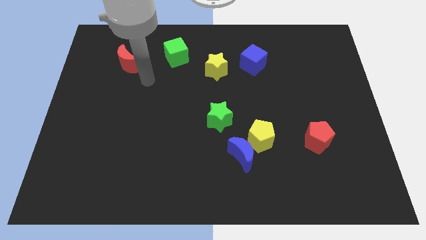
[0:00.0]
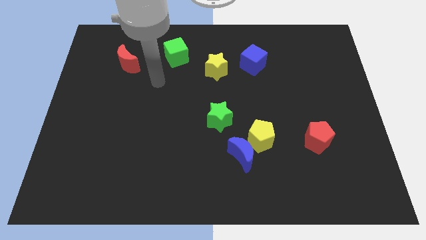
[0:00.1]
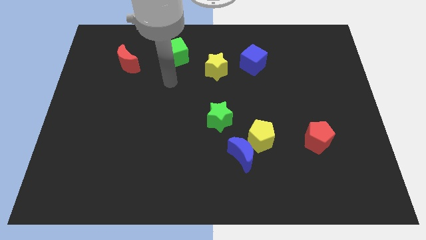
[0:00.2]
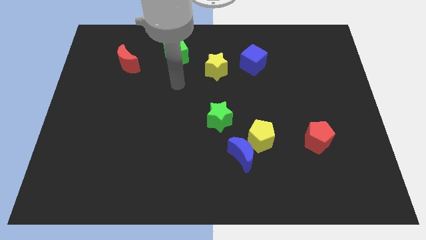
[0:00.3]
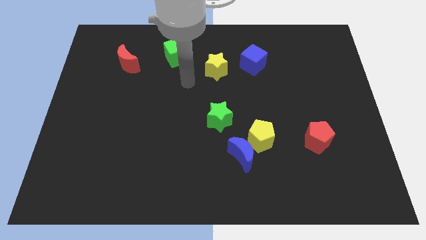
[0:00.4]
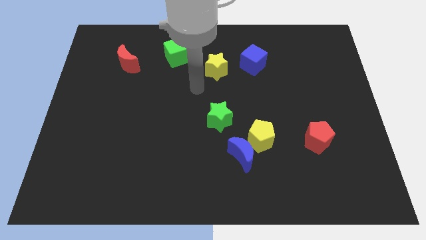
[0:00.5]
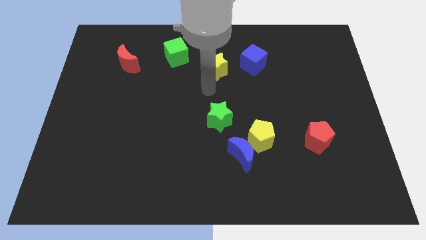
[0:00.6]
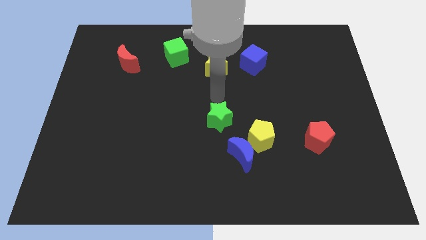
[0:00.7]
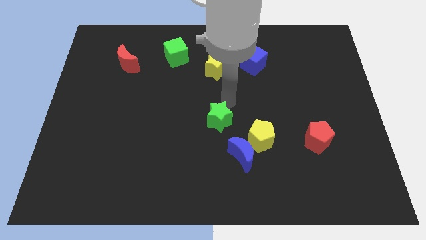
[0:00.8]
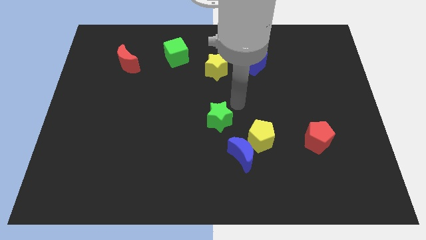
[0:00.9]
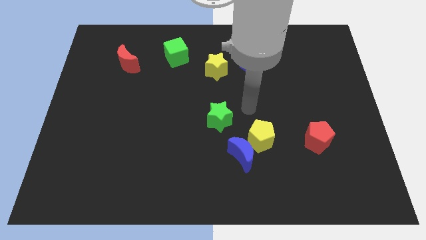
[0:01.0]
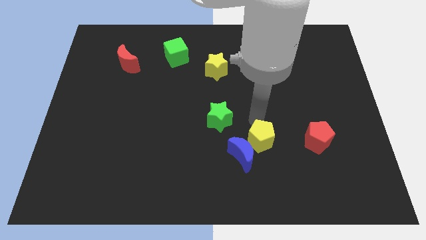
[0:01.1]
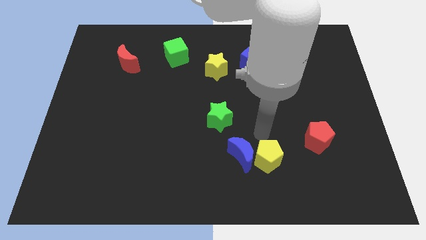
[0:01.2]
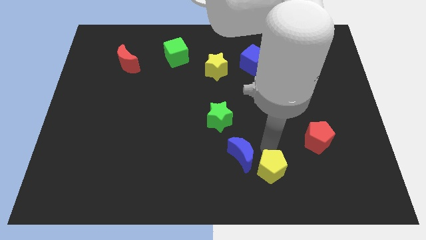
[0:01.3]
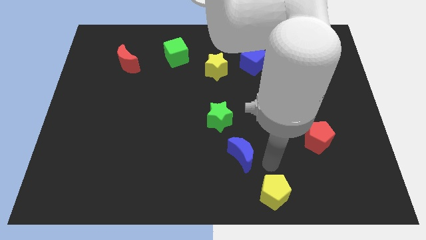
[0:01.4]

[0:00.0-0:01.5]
move the blue moon away from the yellow pentagon

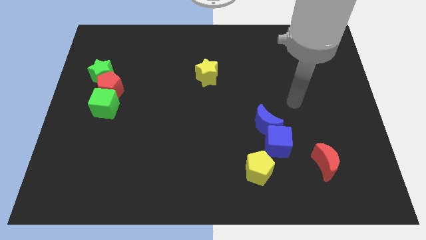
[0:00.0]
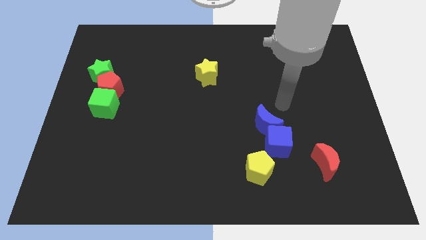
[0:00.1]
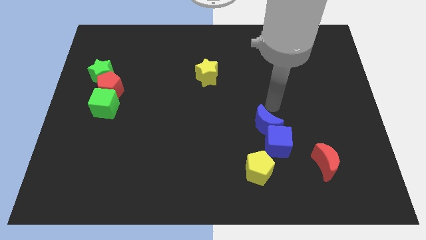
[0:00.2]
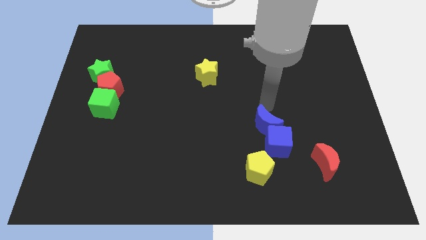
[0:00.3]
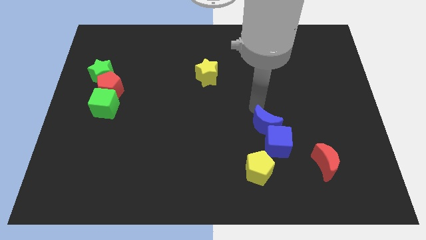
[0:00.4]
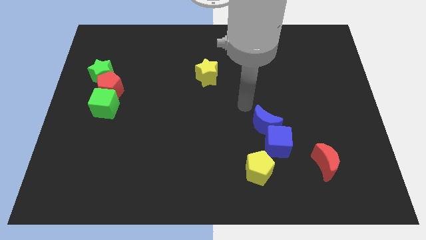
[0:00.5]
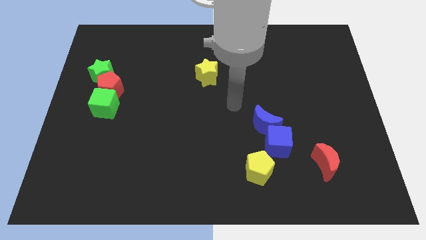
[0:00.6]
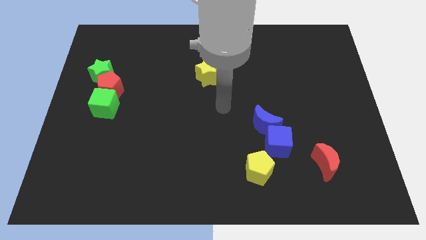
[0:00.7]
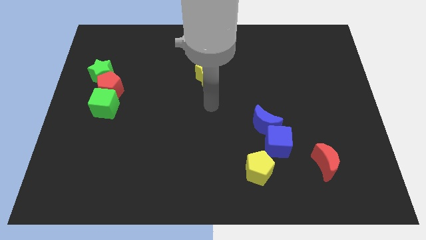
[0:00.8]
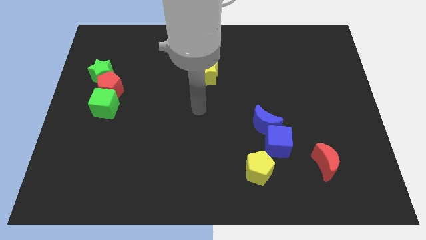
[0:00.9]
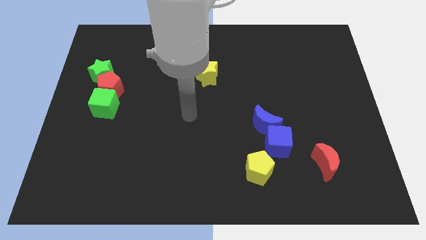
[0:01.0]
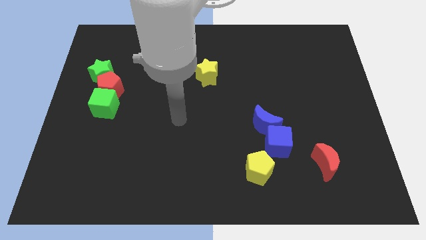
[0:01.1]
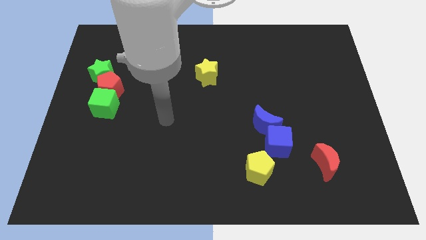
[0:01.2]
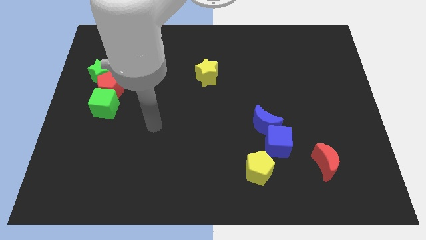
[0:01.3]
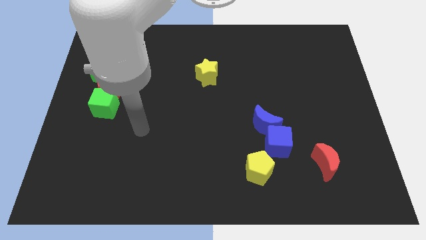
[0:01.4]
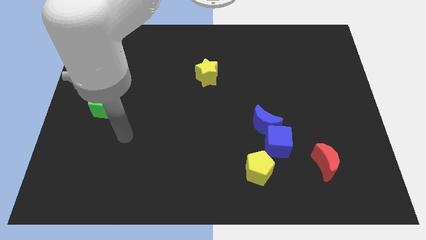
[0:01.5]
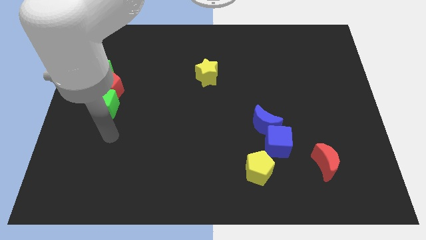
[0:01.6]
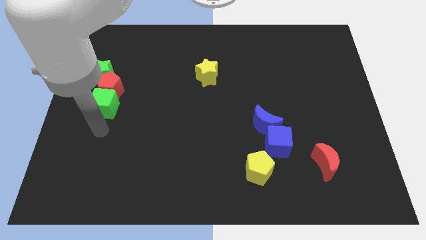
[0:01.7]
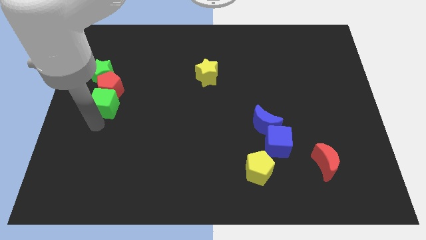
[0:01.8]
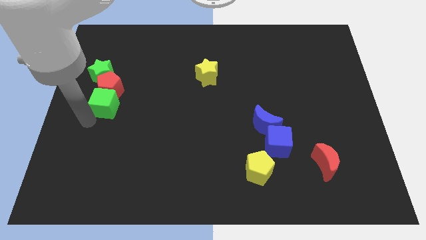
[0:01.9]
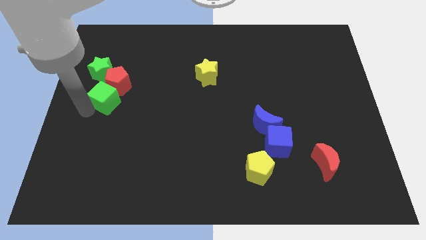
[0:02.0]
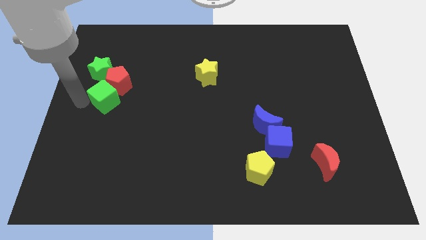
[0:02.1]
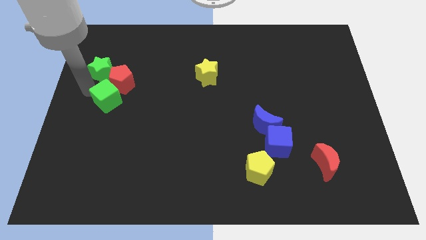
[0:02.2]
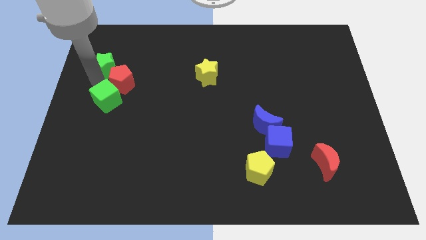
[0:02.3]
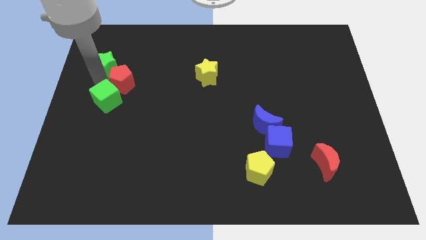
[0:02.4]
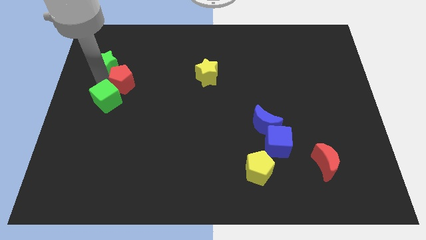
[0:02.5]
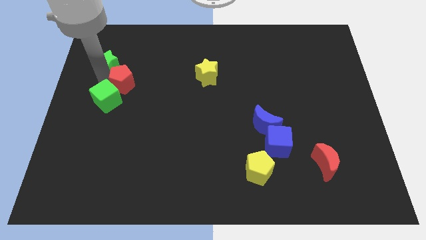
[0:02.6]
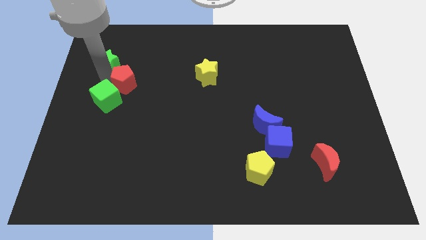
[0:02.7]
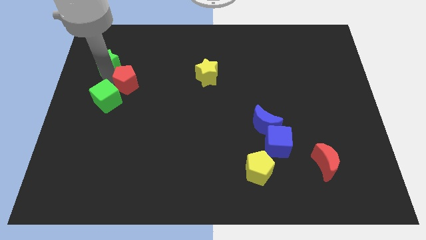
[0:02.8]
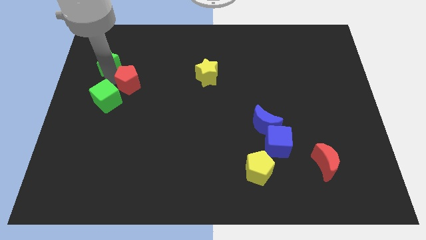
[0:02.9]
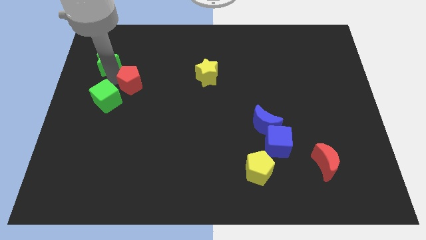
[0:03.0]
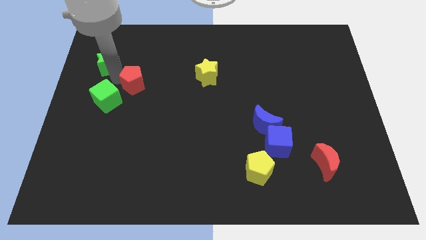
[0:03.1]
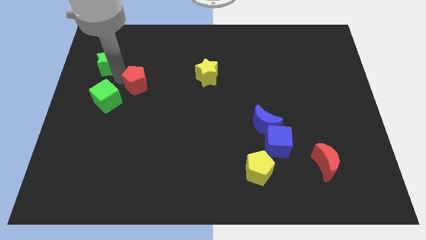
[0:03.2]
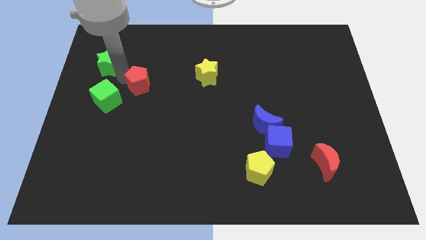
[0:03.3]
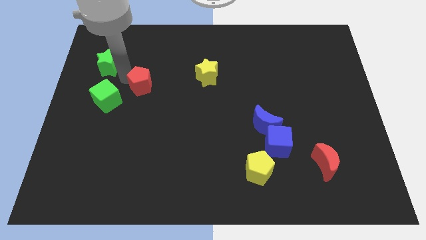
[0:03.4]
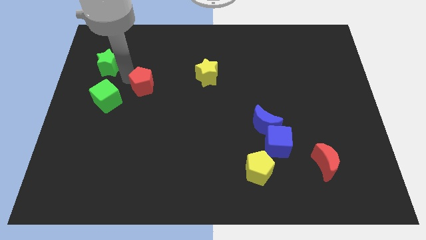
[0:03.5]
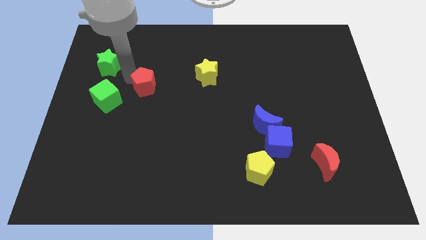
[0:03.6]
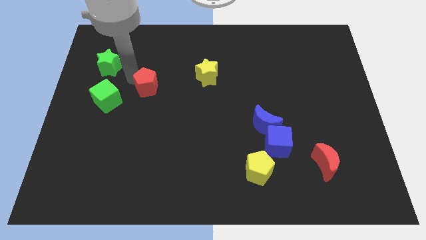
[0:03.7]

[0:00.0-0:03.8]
pull the red pentagon apart from the green star and green cube

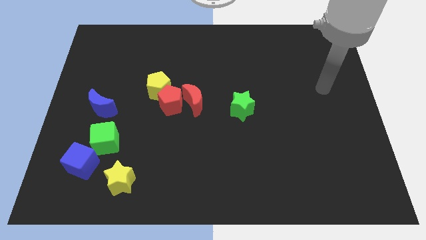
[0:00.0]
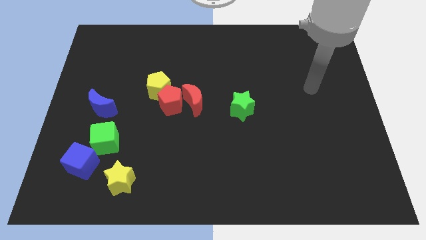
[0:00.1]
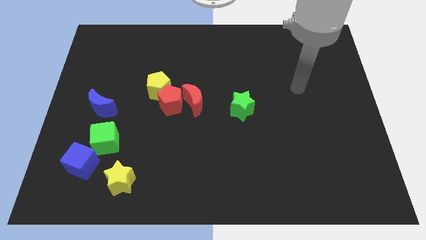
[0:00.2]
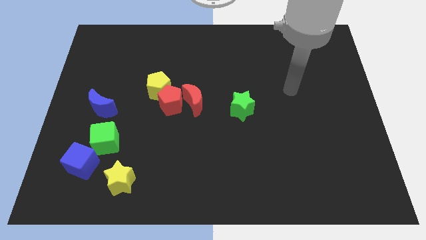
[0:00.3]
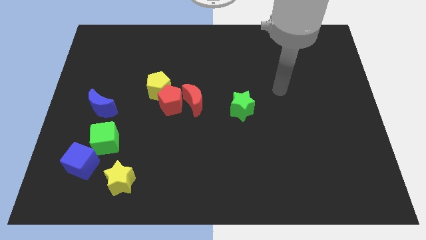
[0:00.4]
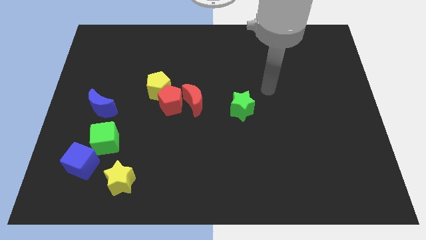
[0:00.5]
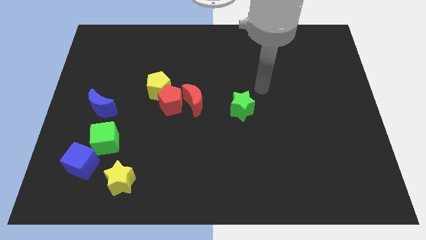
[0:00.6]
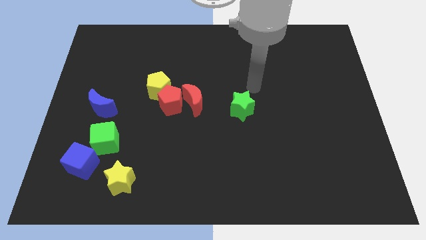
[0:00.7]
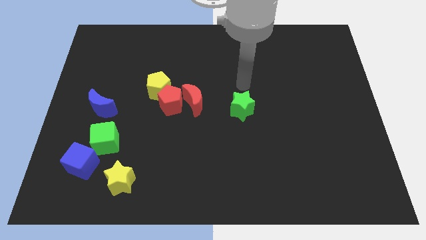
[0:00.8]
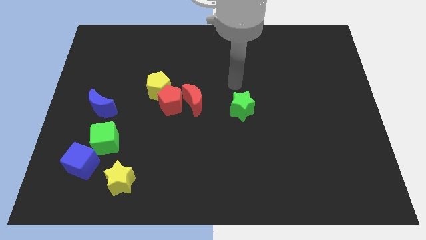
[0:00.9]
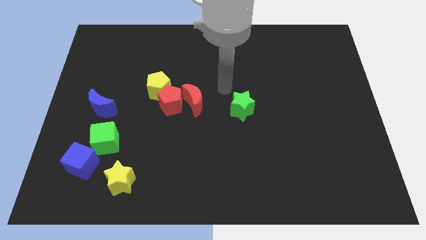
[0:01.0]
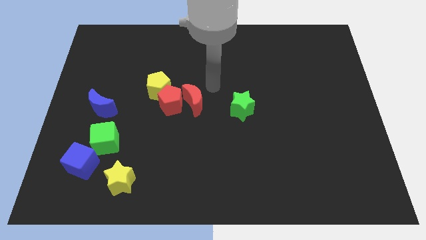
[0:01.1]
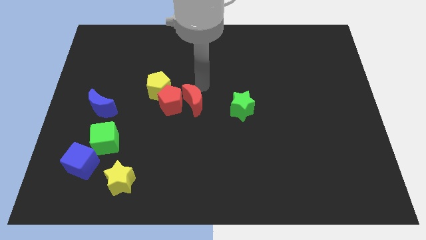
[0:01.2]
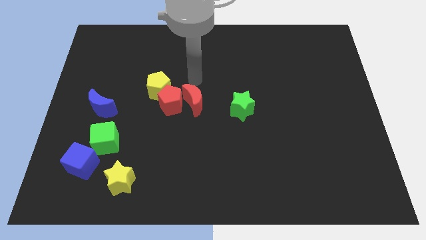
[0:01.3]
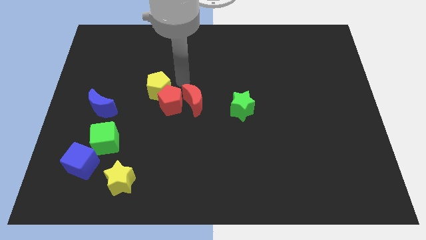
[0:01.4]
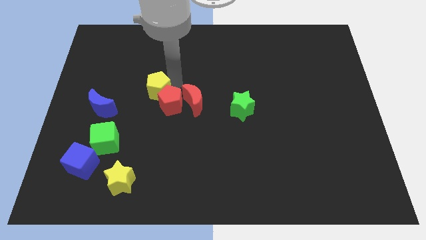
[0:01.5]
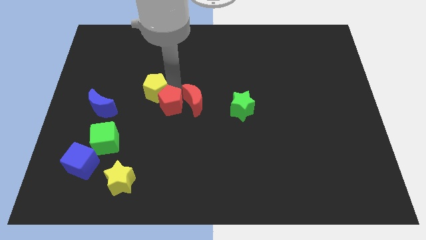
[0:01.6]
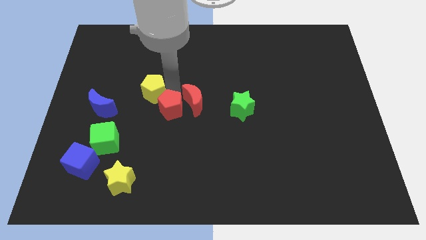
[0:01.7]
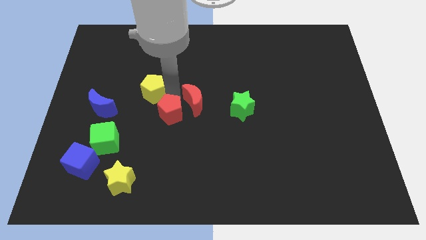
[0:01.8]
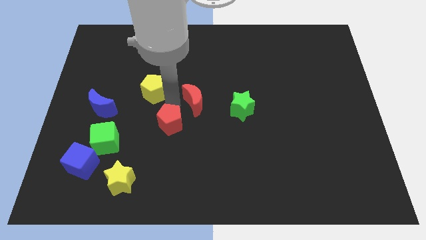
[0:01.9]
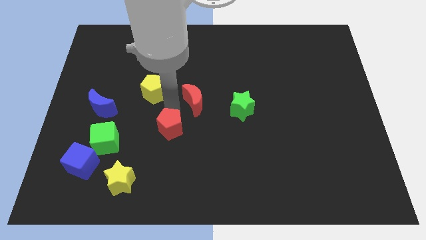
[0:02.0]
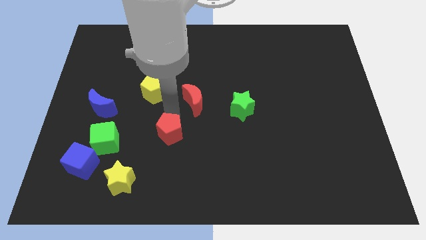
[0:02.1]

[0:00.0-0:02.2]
separate the red pentagon from the red moon and yellow pentagon

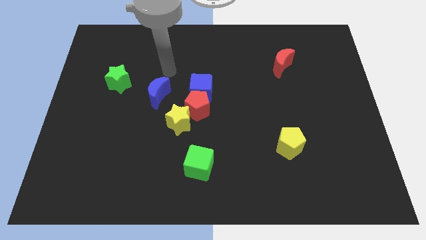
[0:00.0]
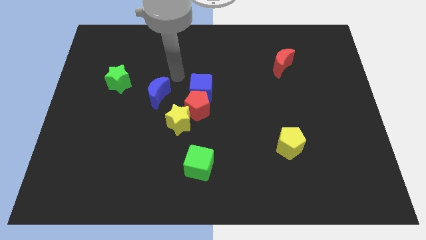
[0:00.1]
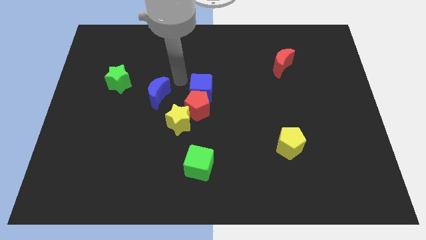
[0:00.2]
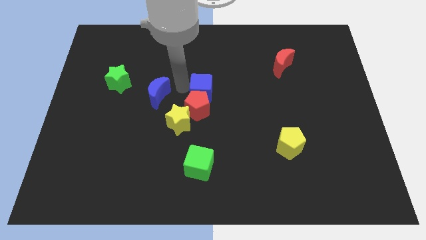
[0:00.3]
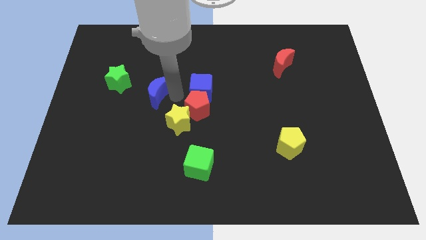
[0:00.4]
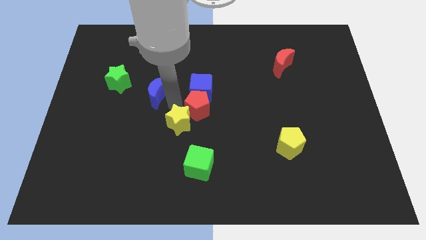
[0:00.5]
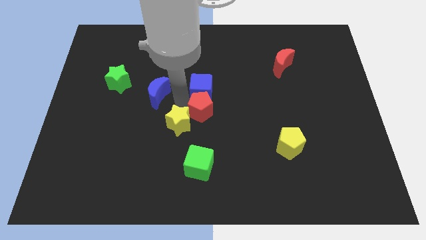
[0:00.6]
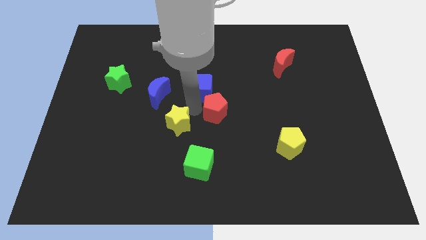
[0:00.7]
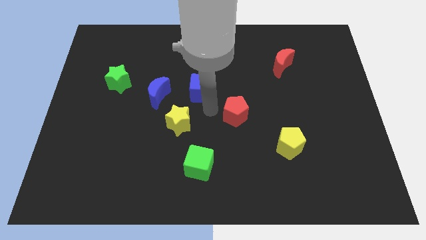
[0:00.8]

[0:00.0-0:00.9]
move the blue cube away from the red pentagon

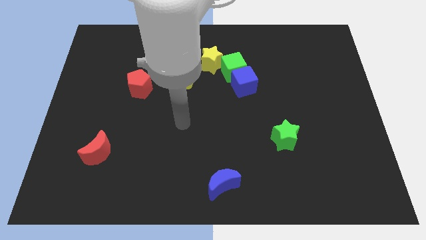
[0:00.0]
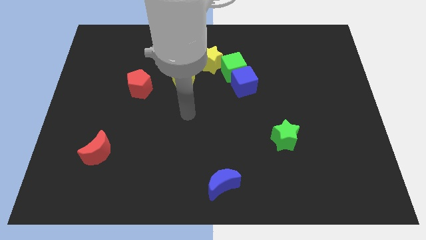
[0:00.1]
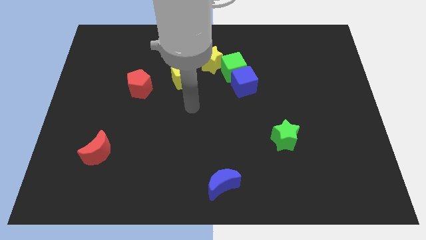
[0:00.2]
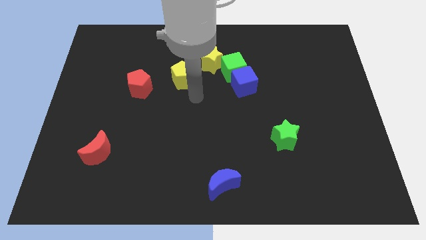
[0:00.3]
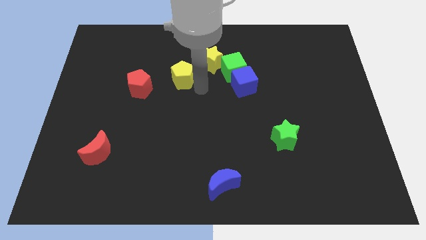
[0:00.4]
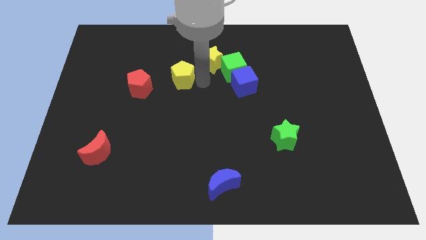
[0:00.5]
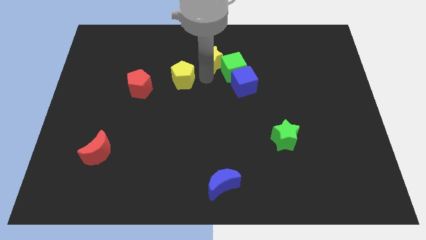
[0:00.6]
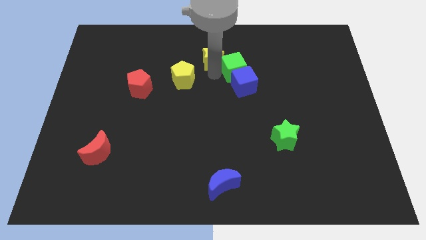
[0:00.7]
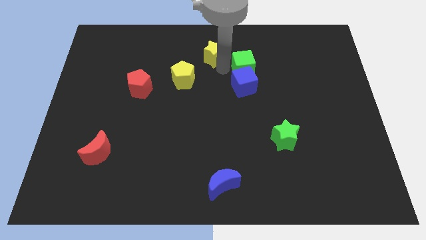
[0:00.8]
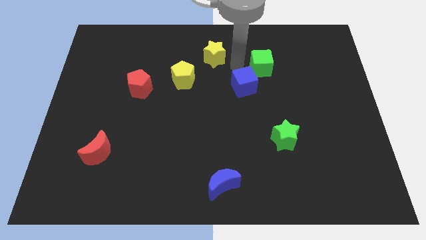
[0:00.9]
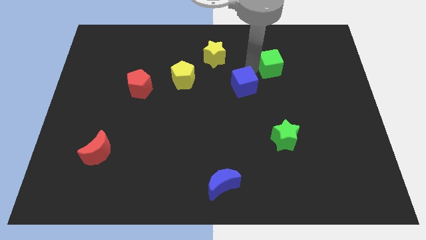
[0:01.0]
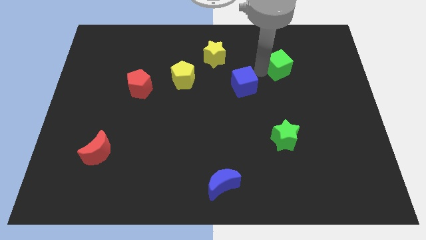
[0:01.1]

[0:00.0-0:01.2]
separate the blue cube from the green cube
